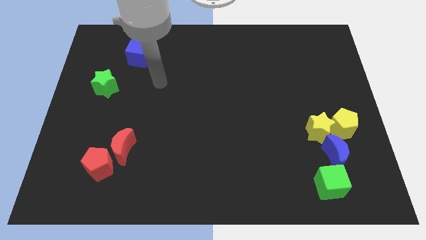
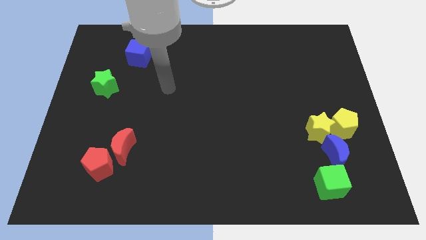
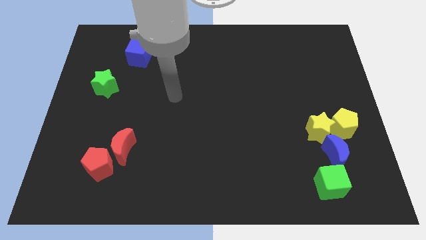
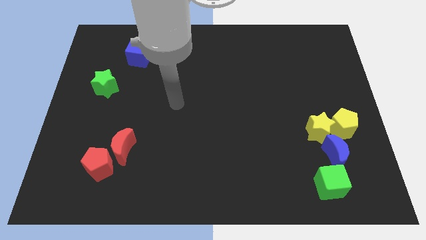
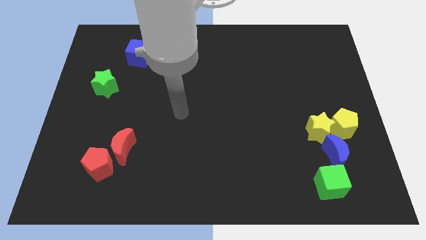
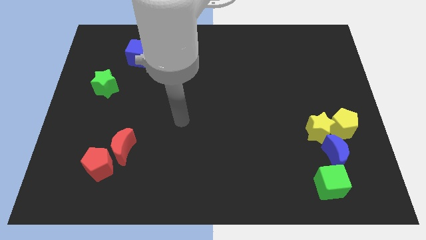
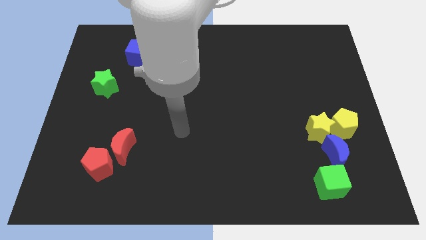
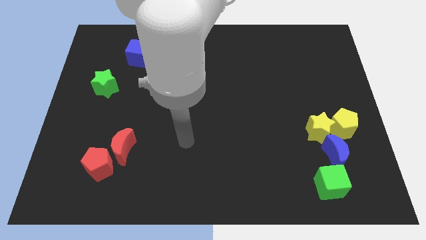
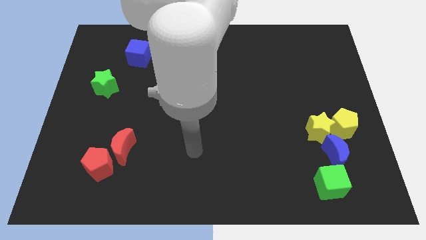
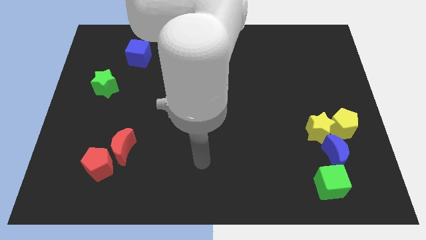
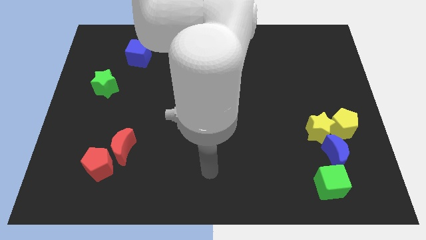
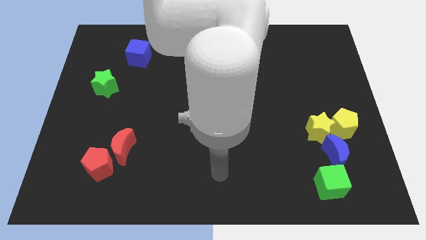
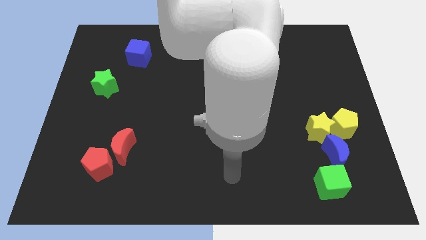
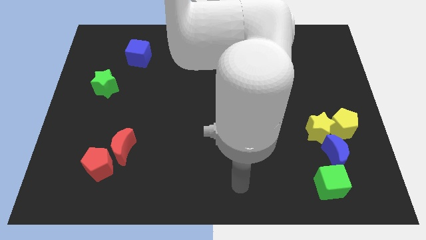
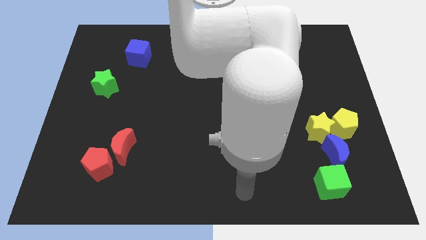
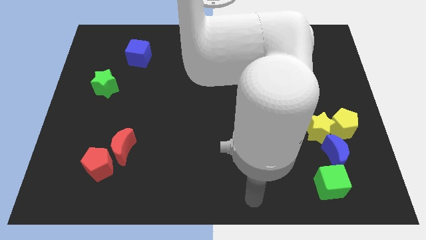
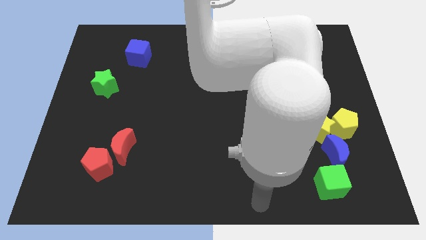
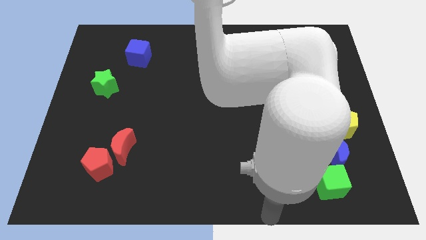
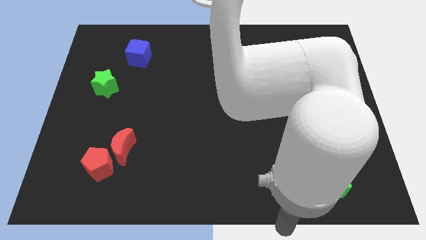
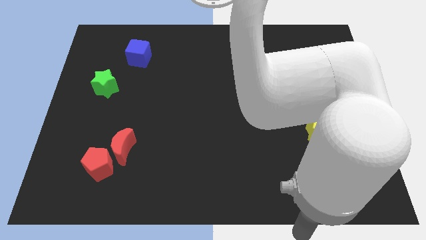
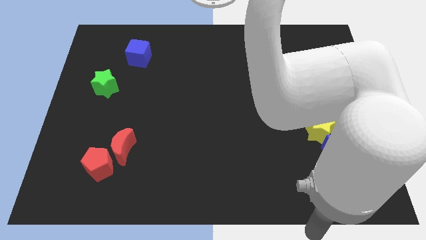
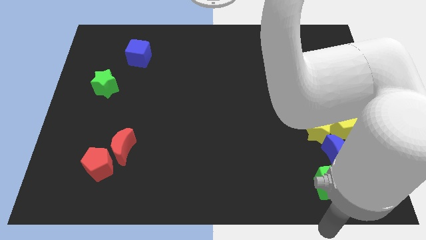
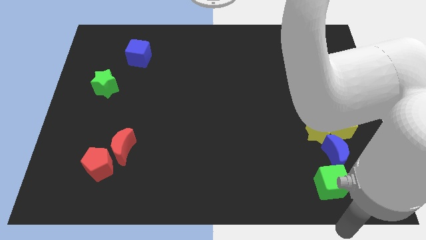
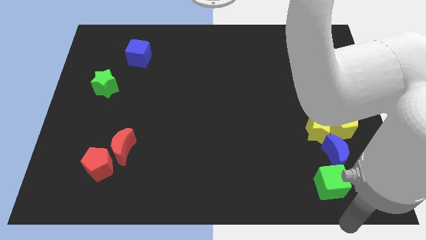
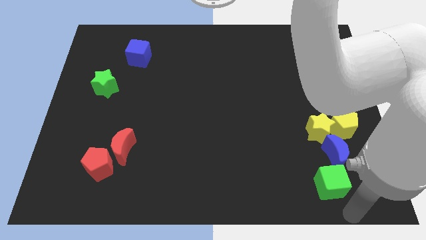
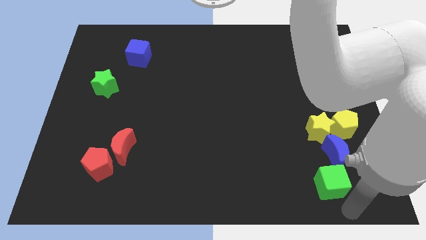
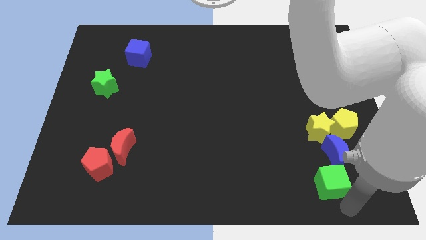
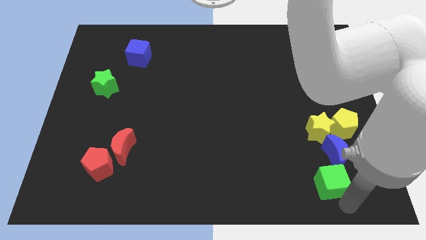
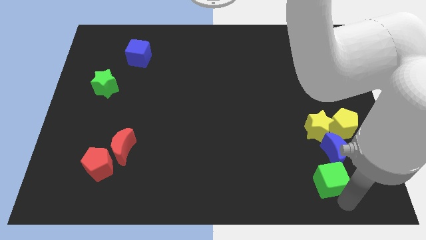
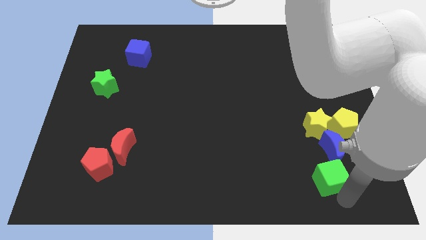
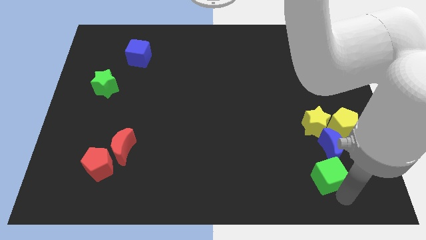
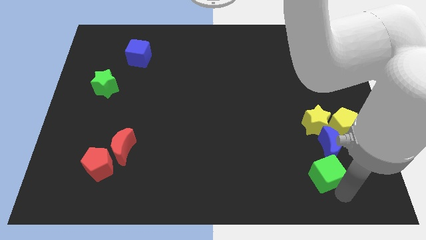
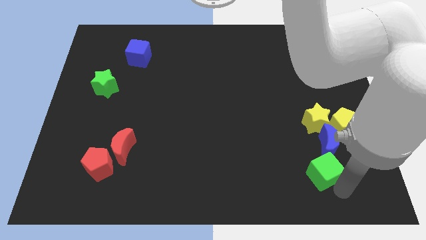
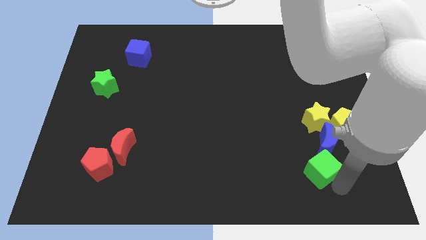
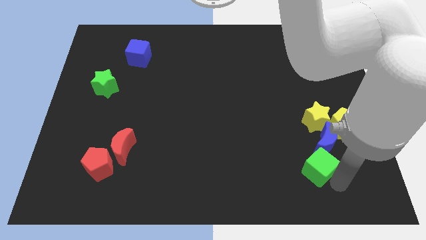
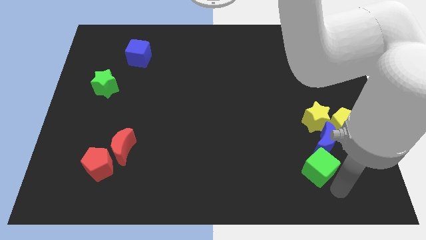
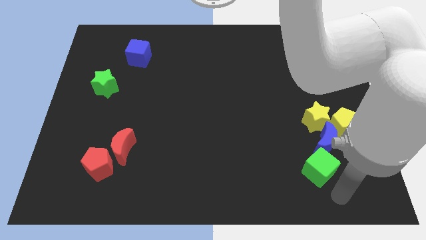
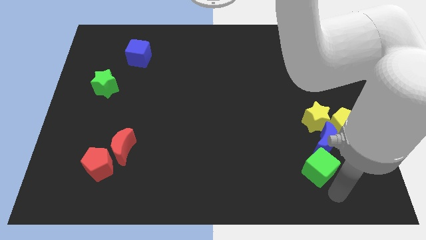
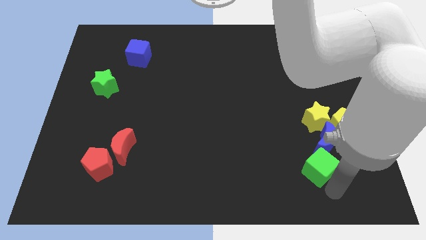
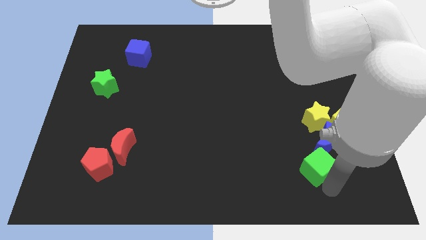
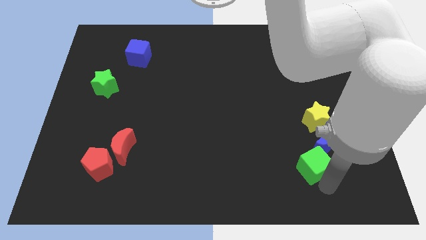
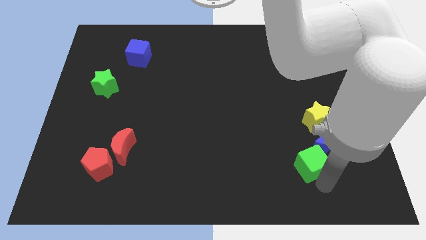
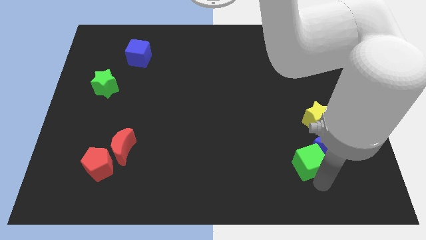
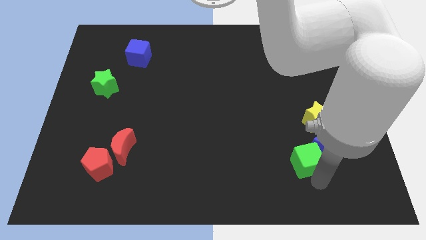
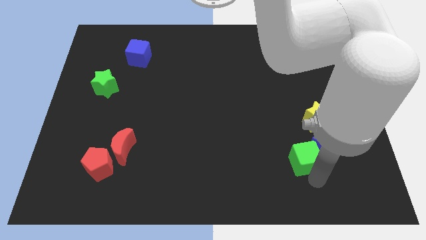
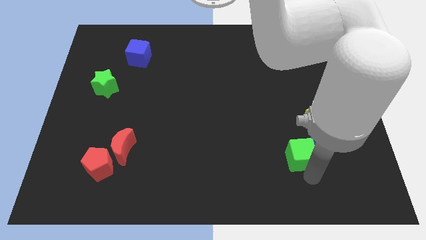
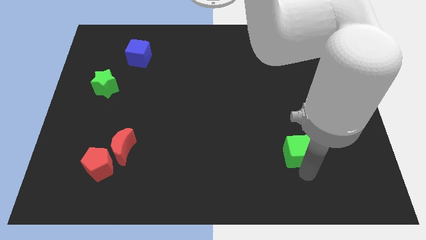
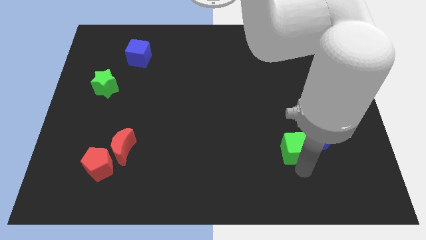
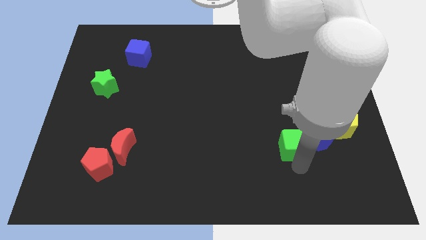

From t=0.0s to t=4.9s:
push the green cube slightly up

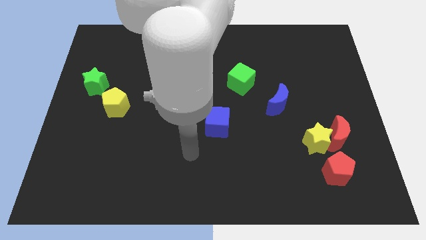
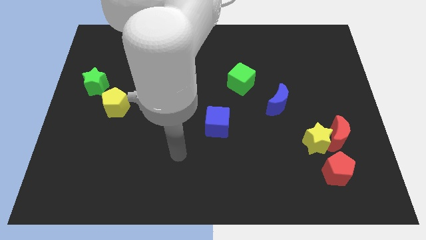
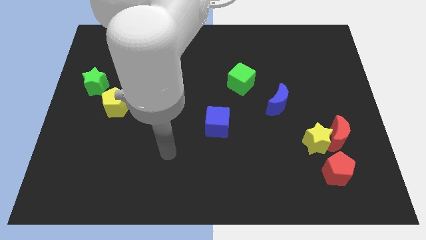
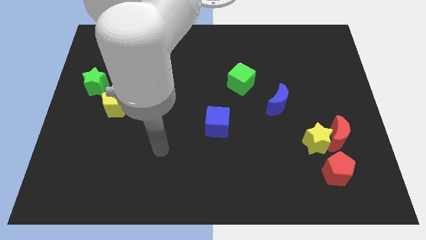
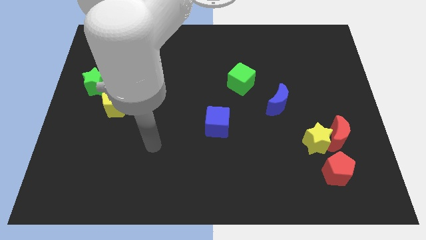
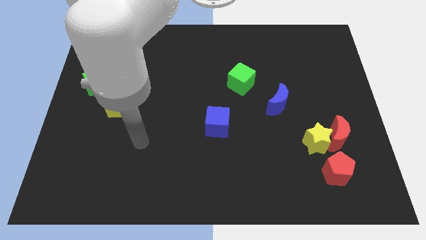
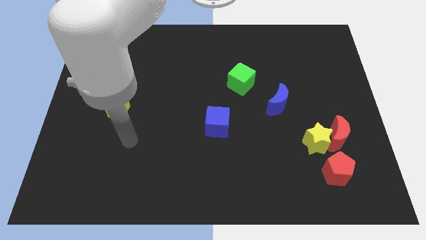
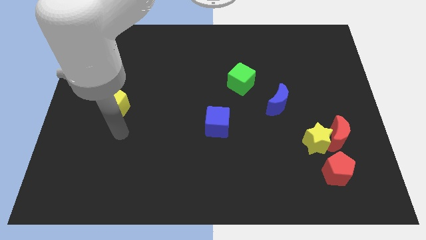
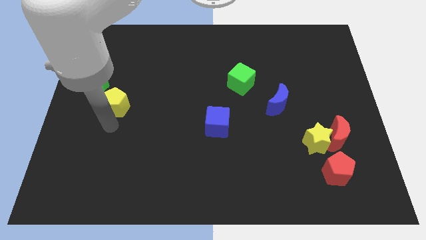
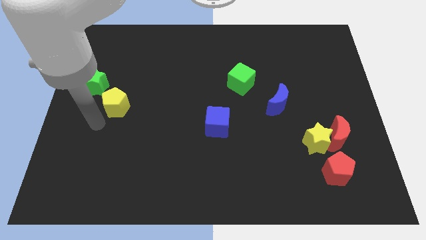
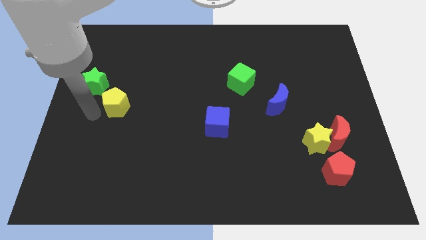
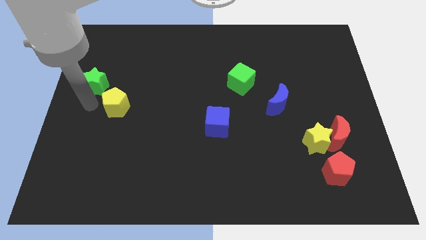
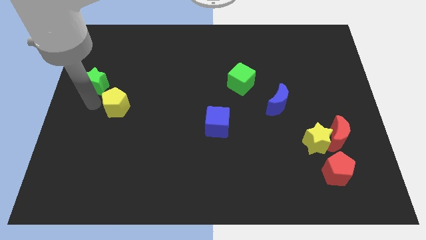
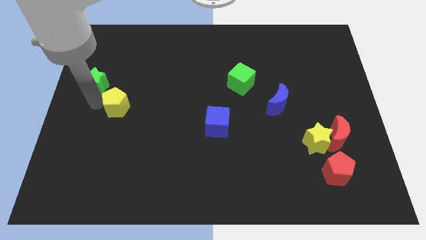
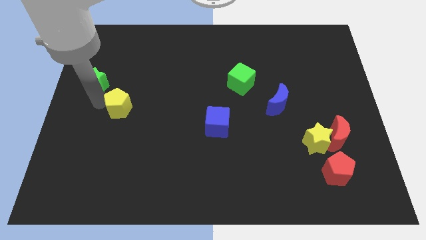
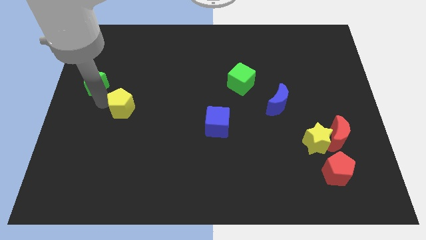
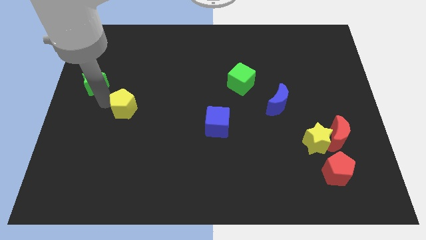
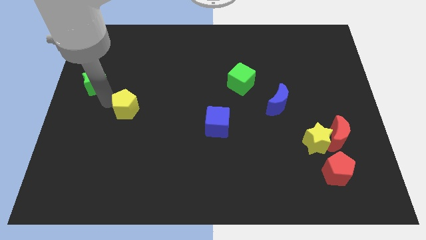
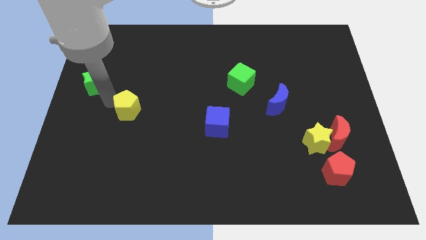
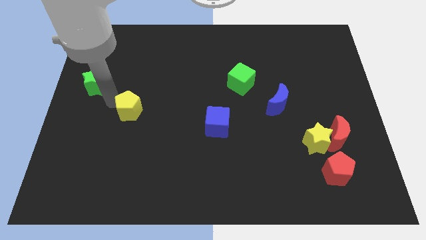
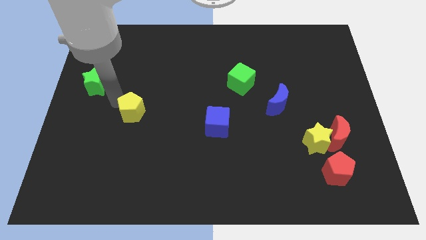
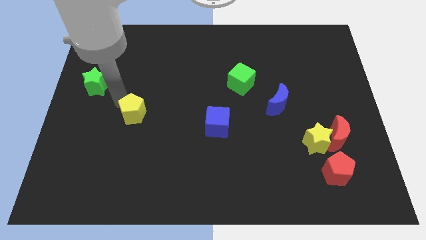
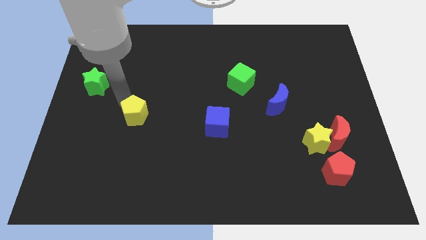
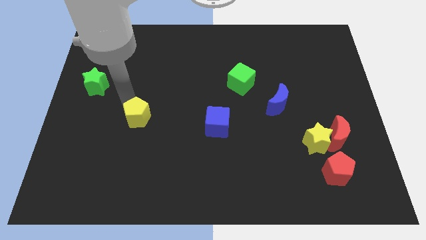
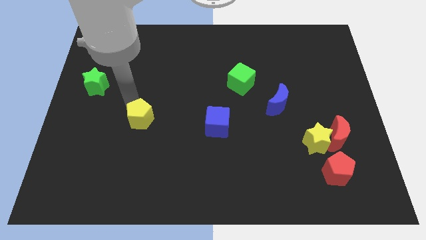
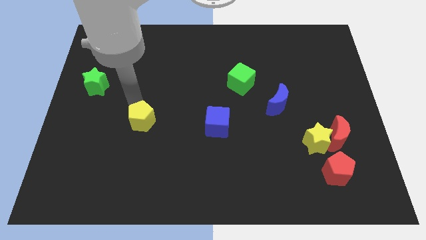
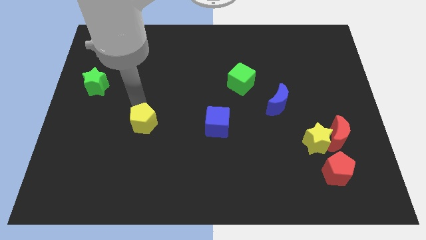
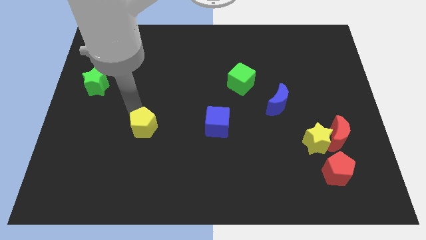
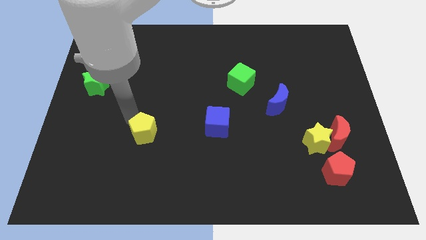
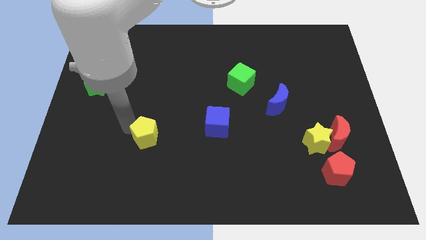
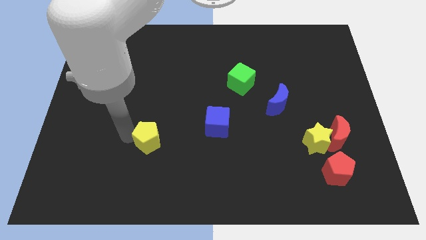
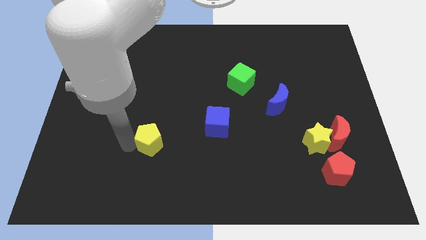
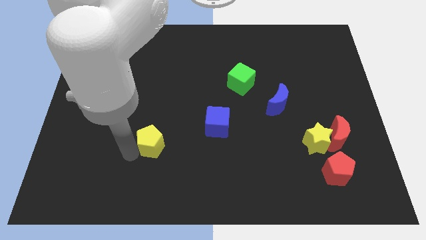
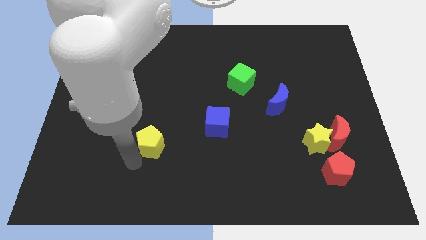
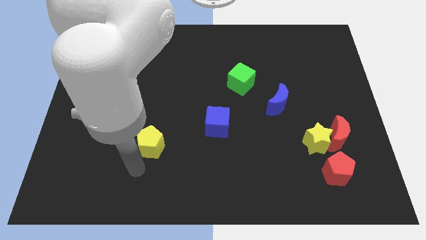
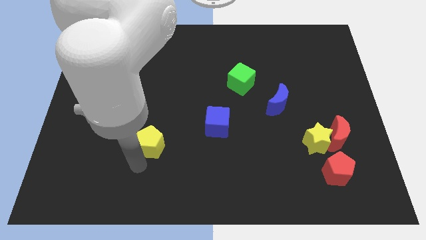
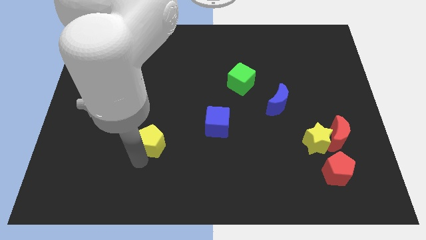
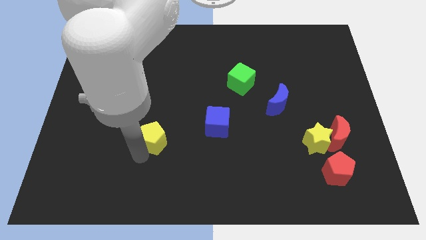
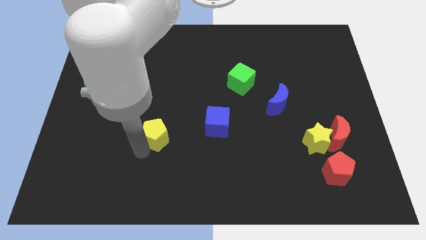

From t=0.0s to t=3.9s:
slide the yellow pentagon to the right somewhat
